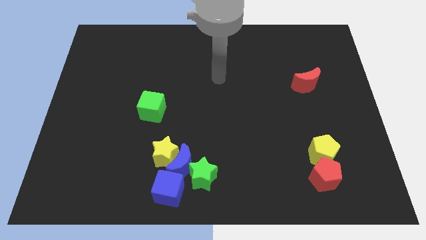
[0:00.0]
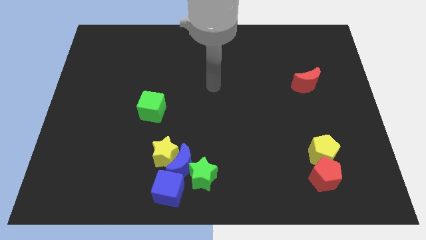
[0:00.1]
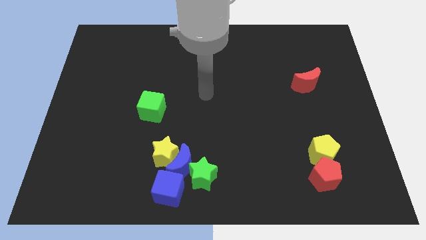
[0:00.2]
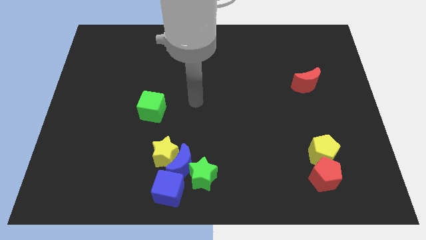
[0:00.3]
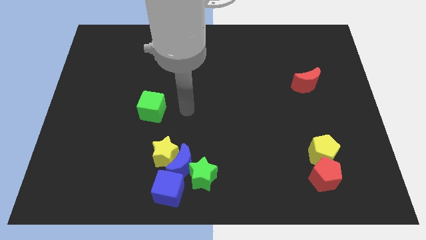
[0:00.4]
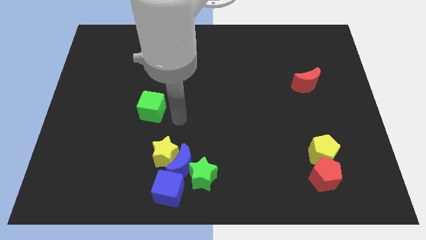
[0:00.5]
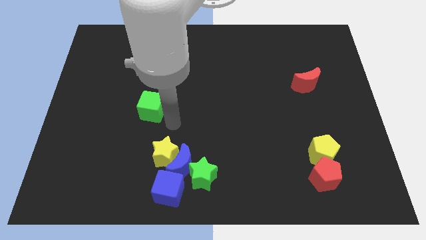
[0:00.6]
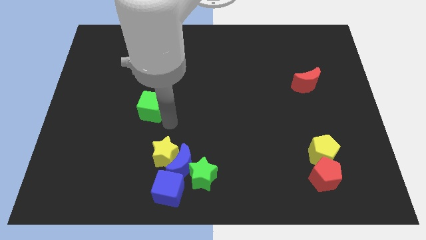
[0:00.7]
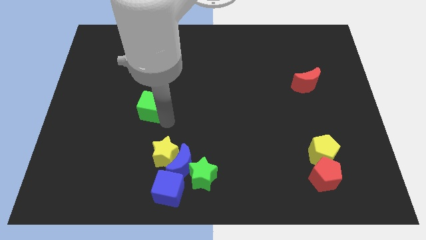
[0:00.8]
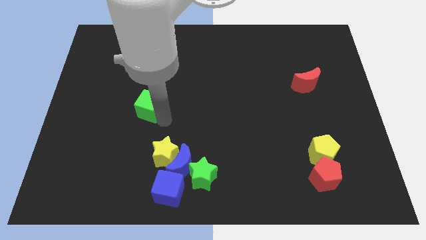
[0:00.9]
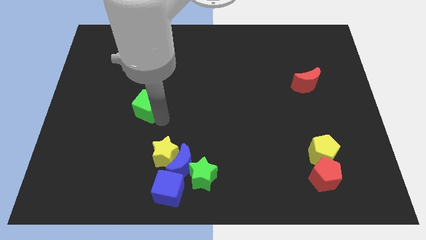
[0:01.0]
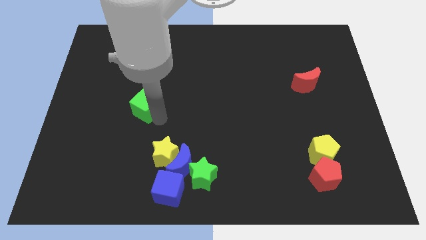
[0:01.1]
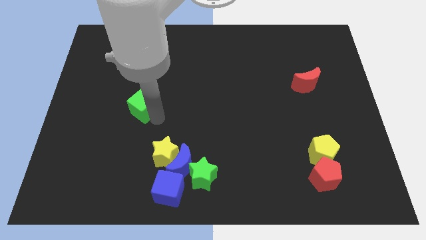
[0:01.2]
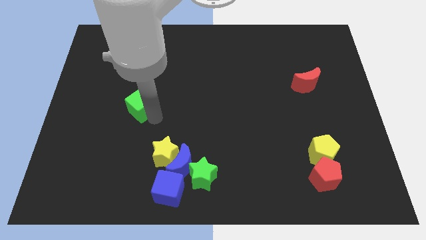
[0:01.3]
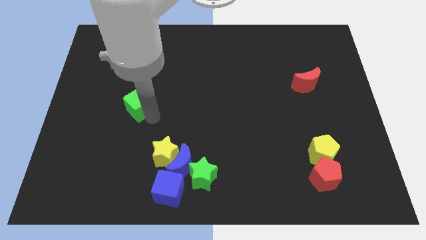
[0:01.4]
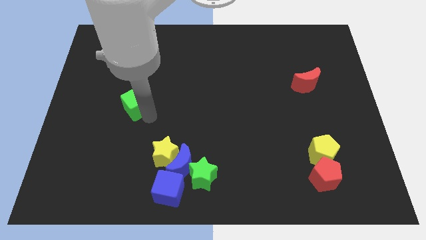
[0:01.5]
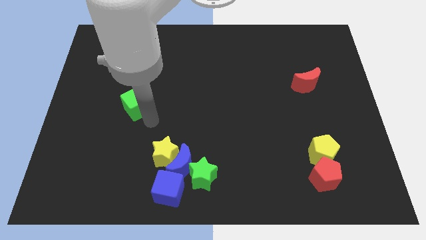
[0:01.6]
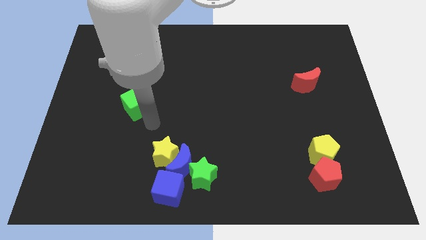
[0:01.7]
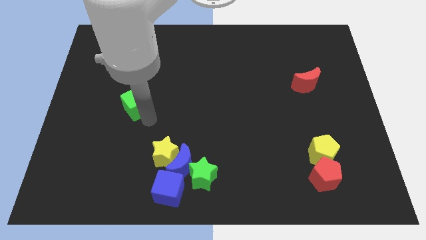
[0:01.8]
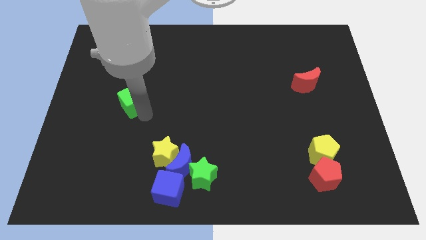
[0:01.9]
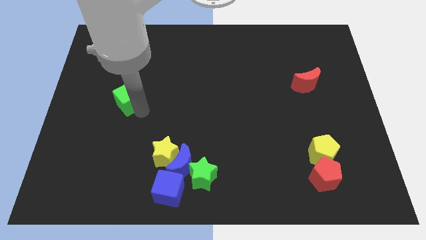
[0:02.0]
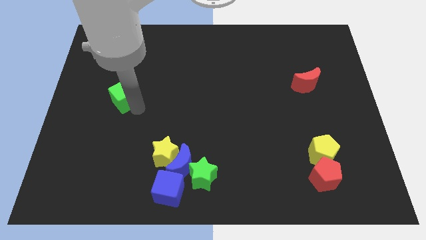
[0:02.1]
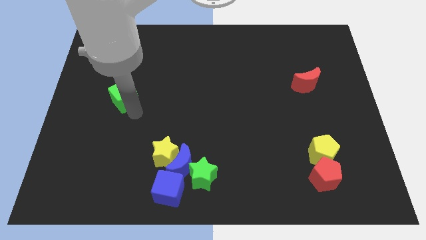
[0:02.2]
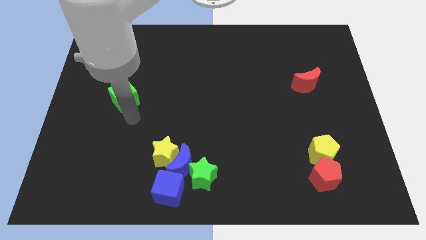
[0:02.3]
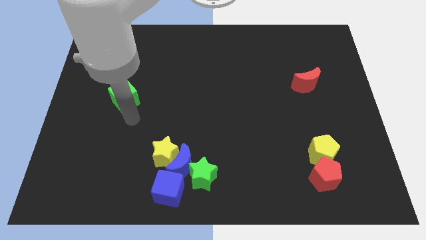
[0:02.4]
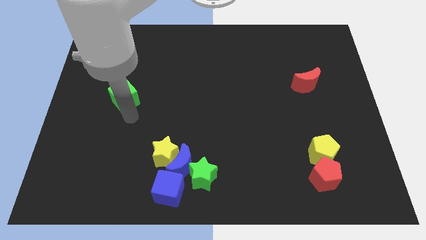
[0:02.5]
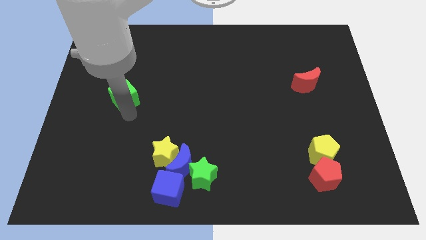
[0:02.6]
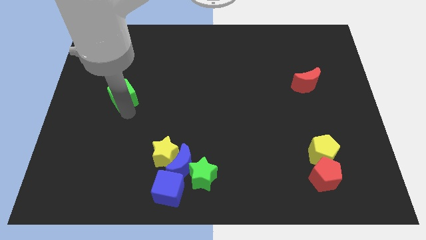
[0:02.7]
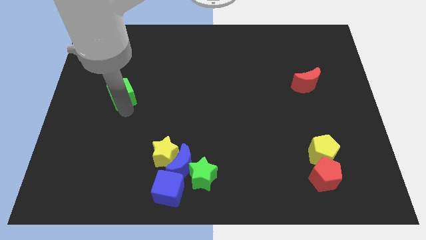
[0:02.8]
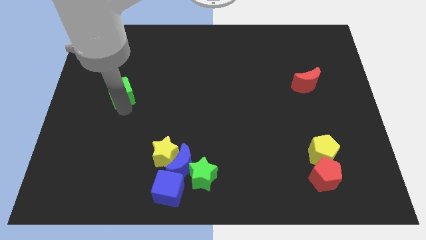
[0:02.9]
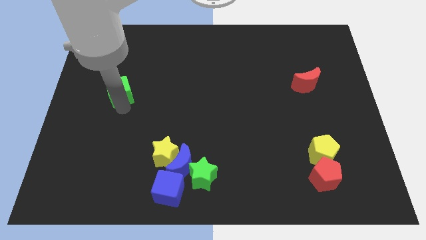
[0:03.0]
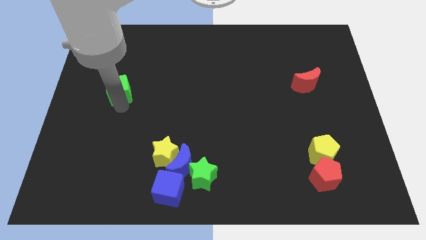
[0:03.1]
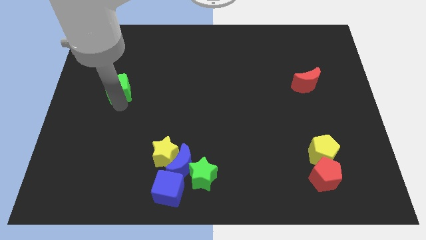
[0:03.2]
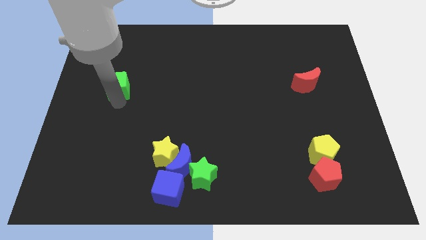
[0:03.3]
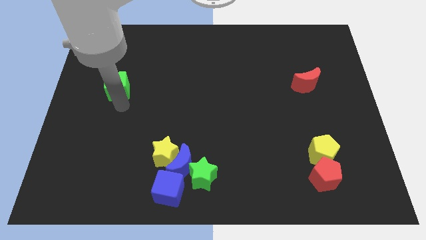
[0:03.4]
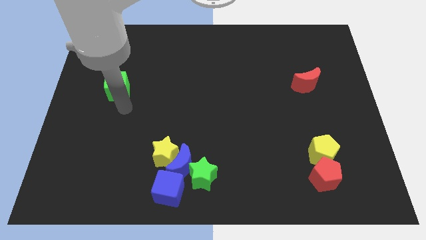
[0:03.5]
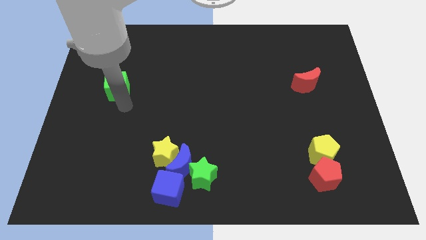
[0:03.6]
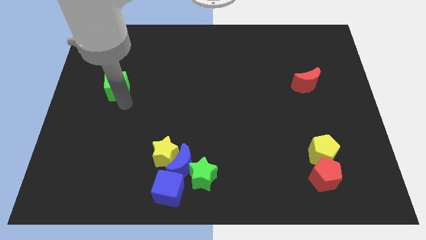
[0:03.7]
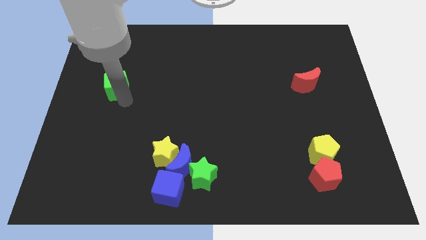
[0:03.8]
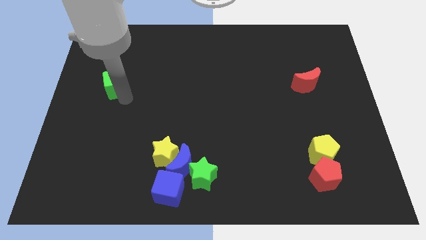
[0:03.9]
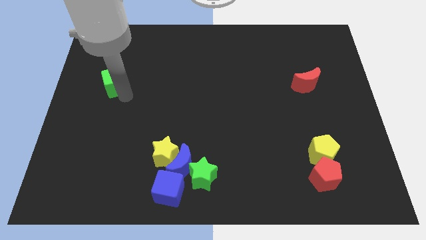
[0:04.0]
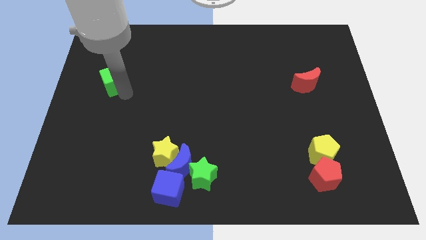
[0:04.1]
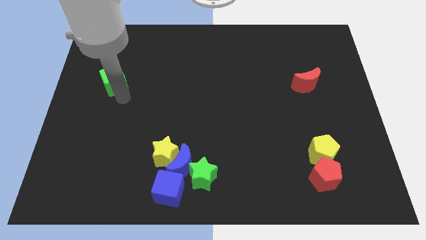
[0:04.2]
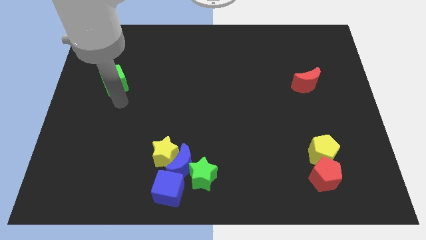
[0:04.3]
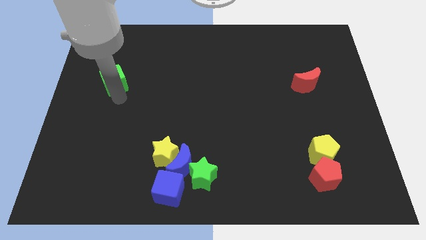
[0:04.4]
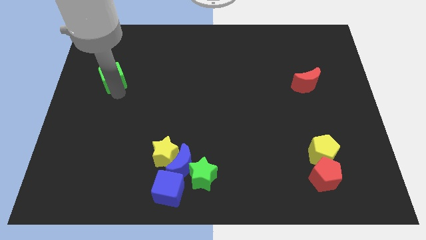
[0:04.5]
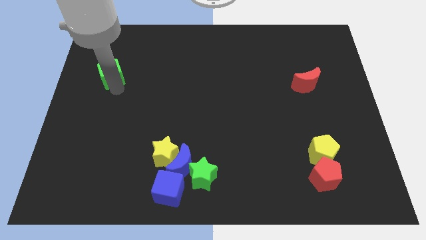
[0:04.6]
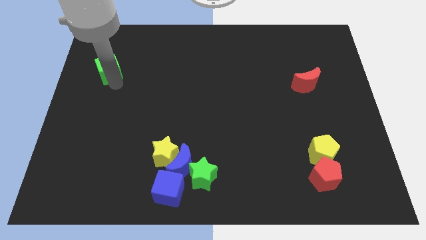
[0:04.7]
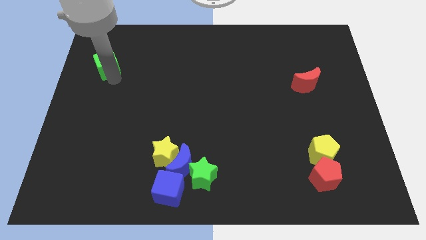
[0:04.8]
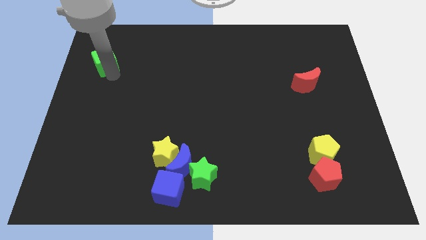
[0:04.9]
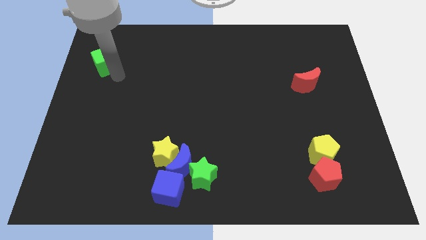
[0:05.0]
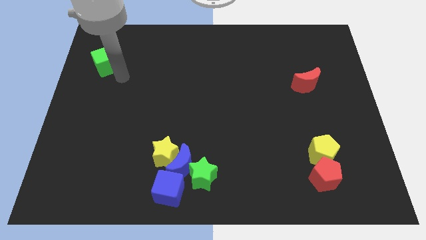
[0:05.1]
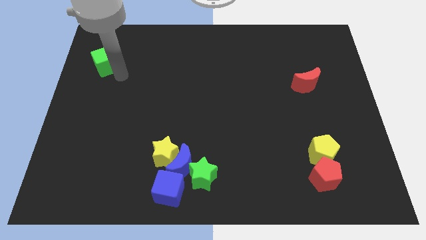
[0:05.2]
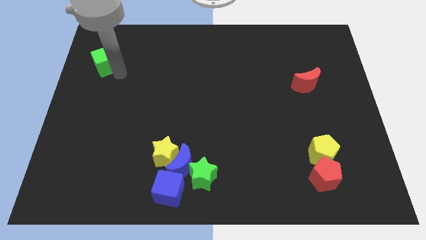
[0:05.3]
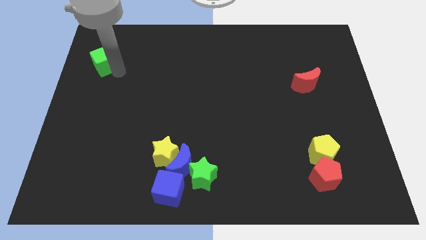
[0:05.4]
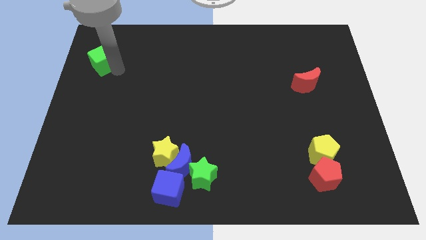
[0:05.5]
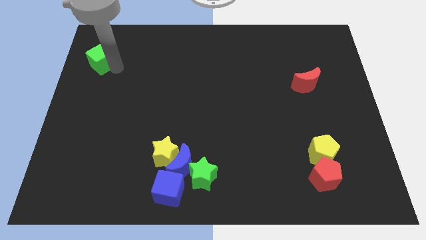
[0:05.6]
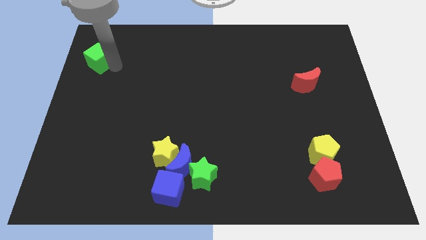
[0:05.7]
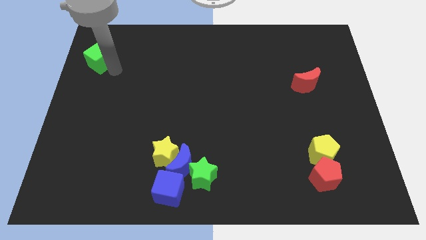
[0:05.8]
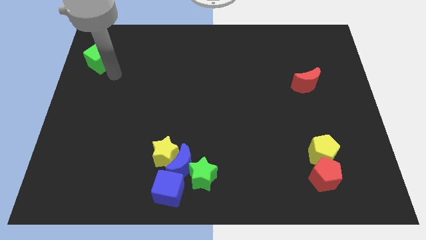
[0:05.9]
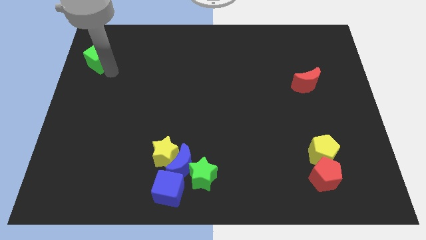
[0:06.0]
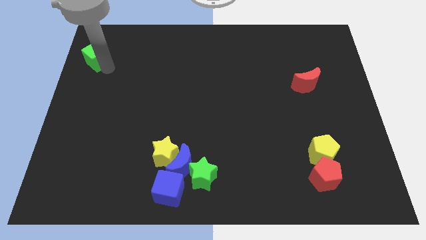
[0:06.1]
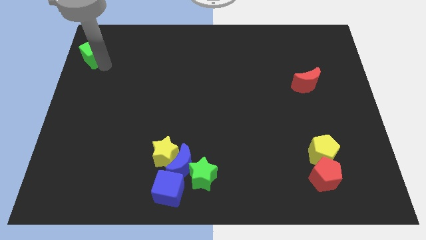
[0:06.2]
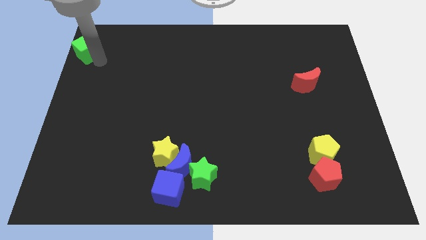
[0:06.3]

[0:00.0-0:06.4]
push the green cube to the upper left corner

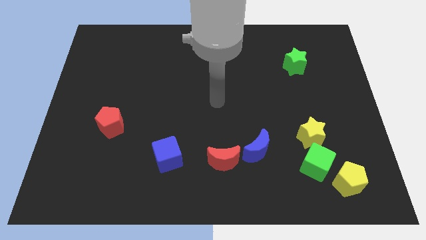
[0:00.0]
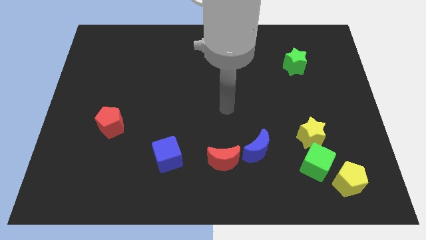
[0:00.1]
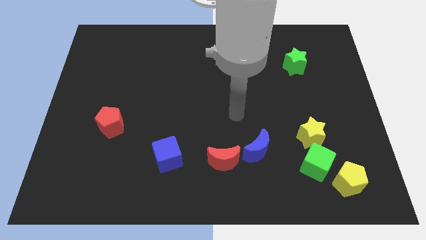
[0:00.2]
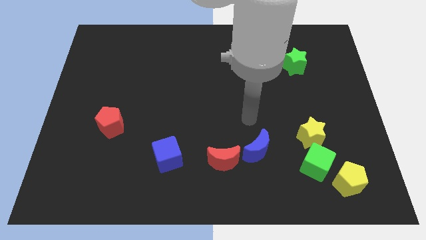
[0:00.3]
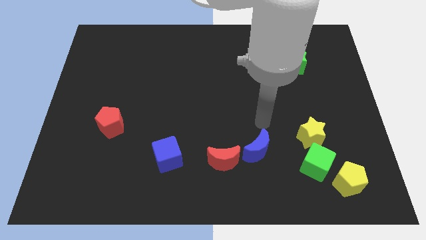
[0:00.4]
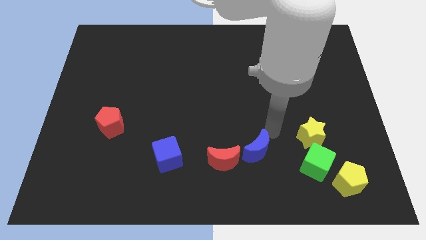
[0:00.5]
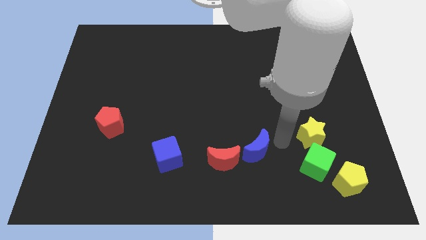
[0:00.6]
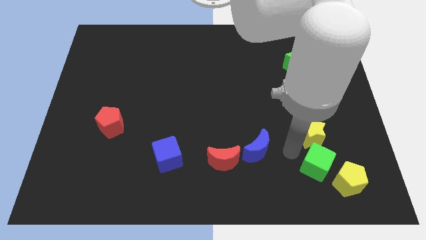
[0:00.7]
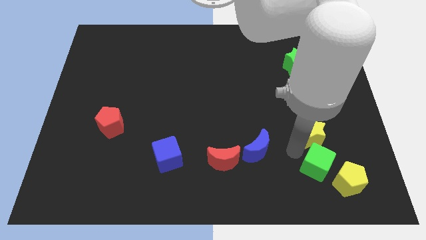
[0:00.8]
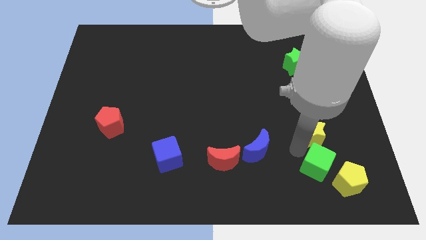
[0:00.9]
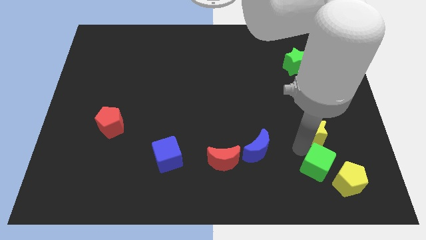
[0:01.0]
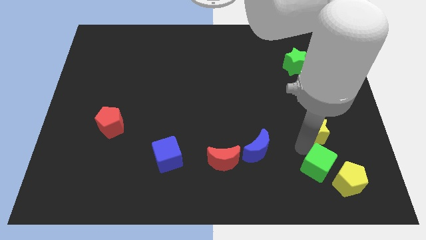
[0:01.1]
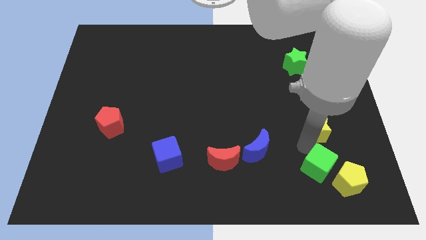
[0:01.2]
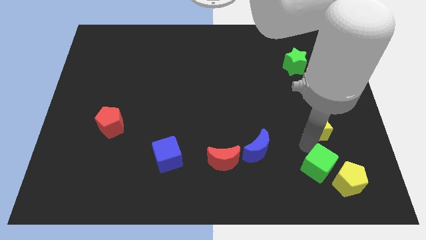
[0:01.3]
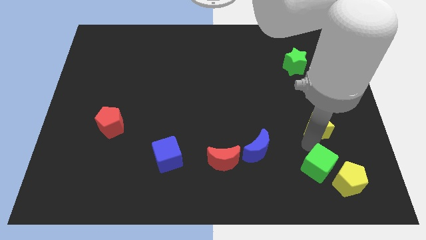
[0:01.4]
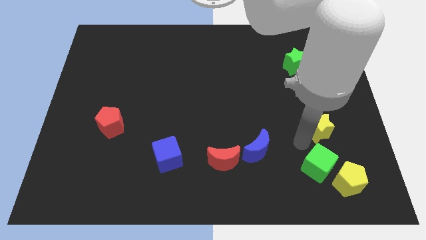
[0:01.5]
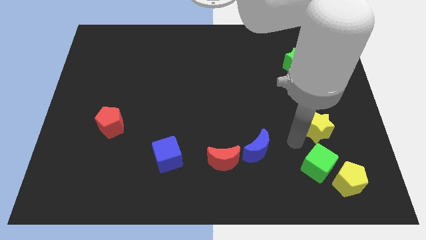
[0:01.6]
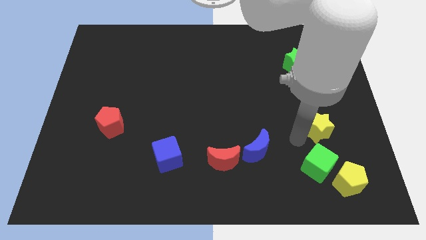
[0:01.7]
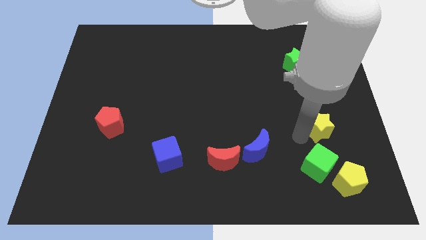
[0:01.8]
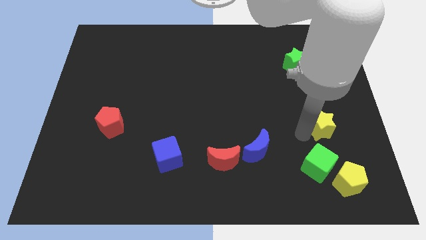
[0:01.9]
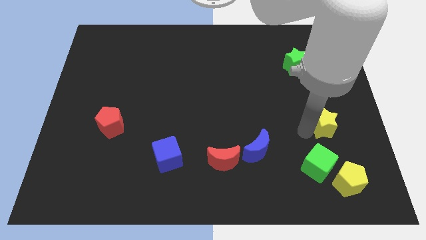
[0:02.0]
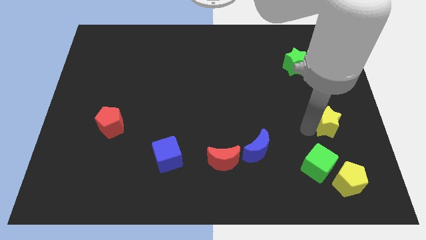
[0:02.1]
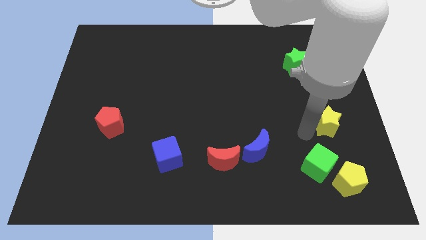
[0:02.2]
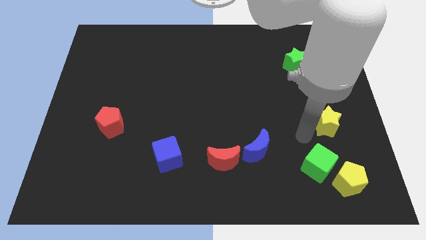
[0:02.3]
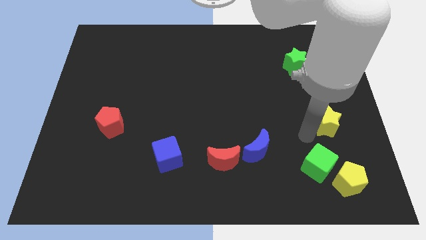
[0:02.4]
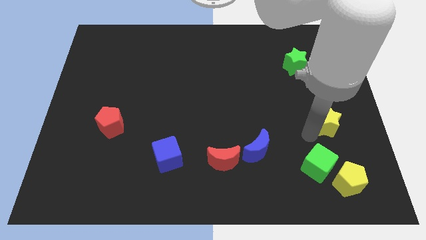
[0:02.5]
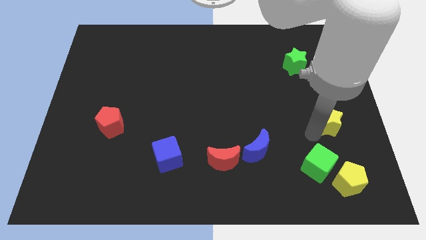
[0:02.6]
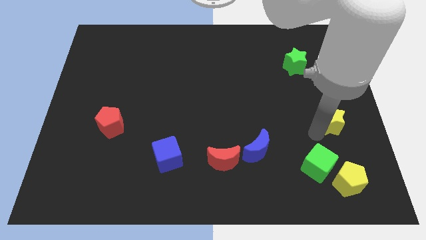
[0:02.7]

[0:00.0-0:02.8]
slide the yellow star to the right side
